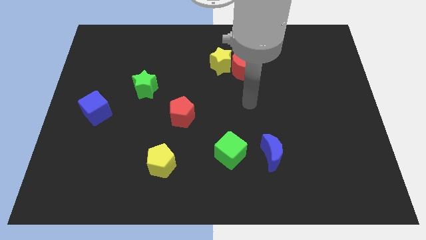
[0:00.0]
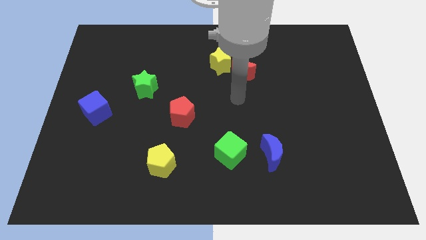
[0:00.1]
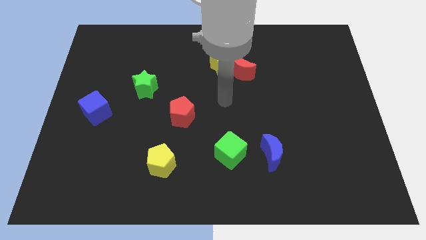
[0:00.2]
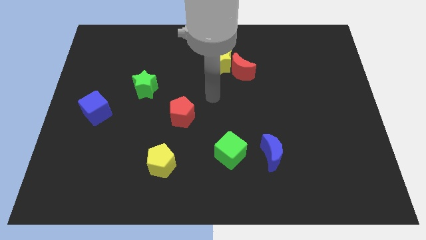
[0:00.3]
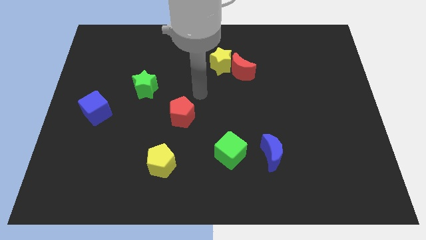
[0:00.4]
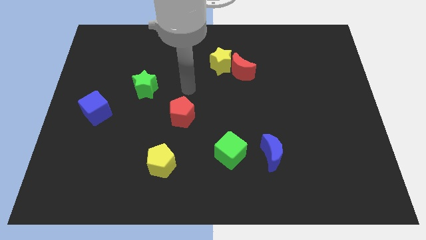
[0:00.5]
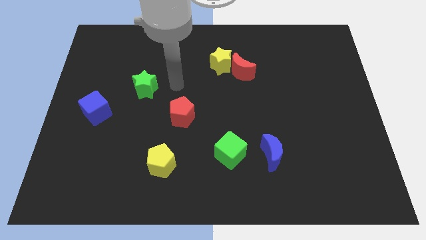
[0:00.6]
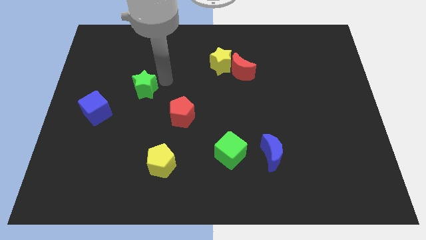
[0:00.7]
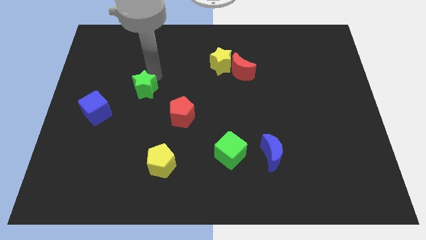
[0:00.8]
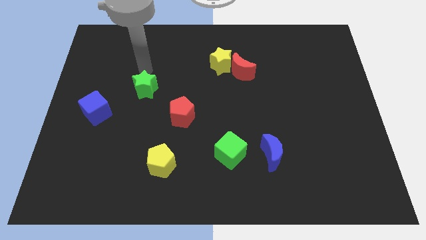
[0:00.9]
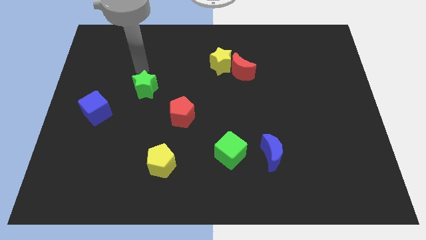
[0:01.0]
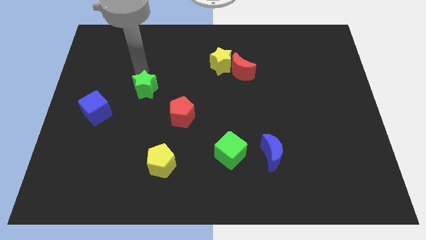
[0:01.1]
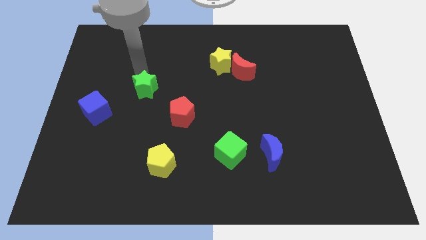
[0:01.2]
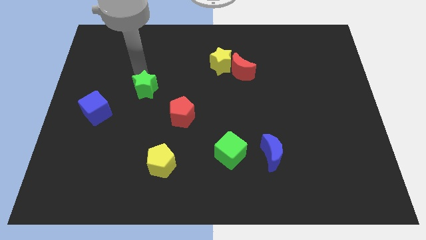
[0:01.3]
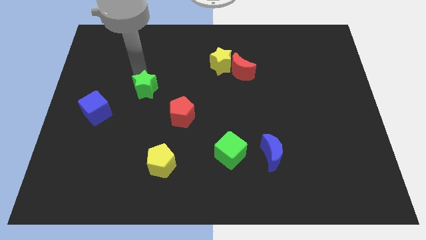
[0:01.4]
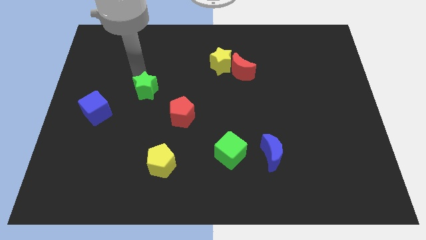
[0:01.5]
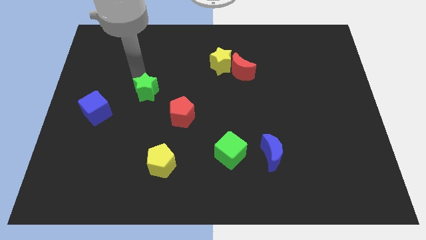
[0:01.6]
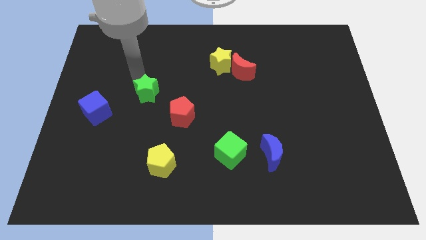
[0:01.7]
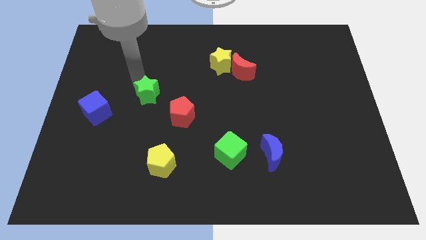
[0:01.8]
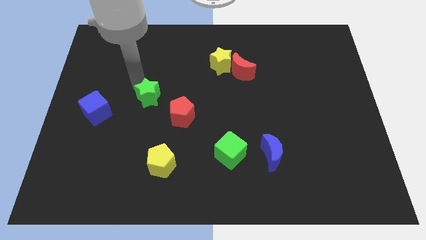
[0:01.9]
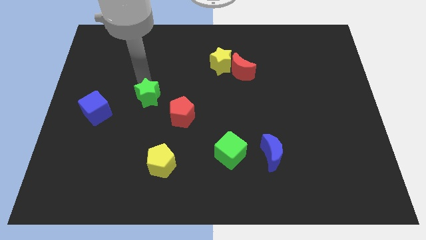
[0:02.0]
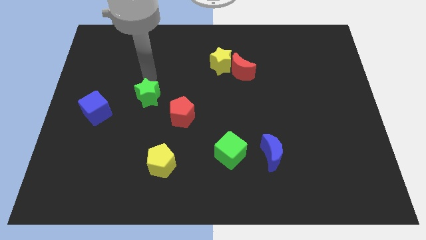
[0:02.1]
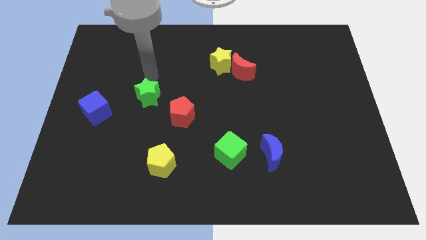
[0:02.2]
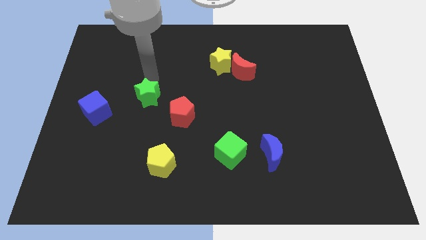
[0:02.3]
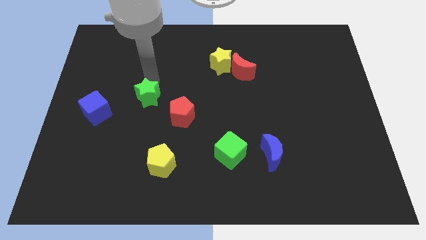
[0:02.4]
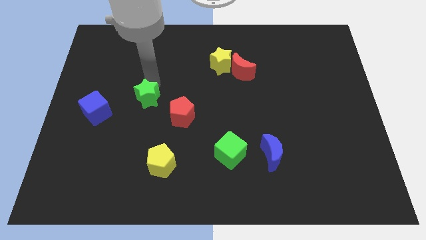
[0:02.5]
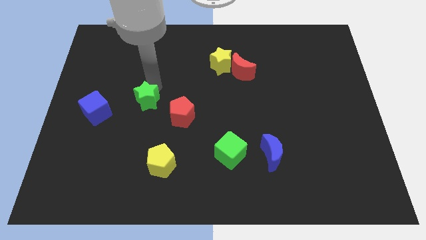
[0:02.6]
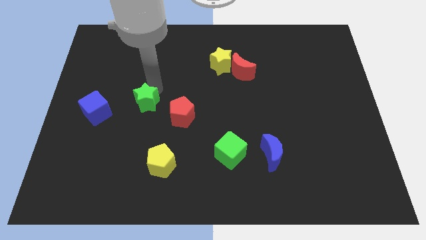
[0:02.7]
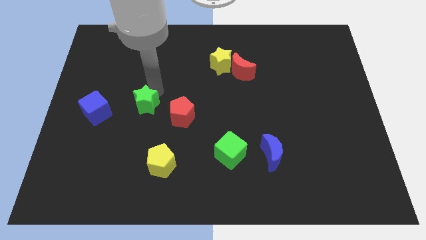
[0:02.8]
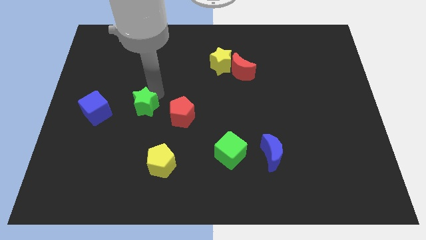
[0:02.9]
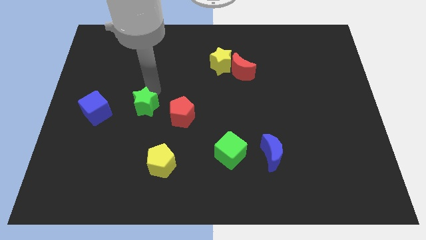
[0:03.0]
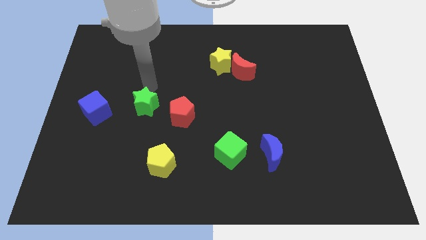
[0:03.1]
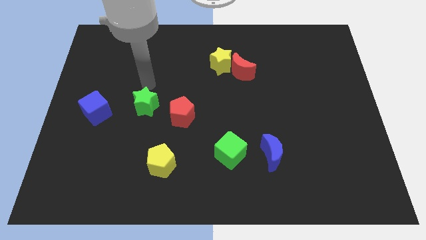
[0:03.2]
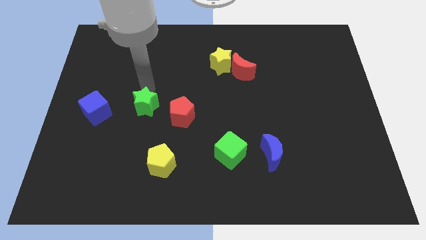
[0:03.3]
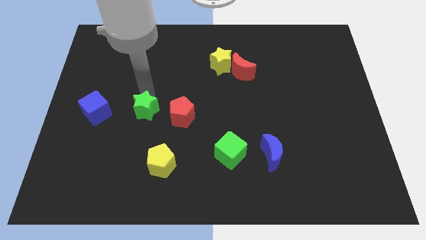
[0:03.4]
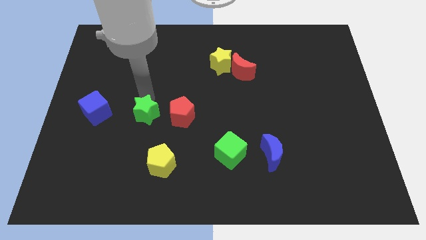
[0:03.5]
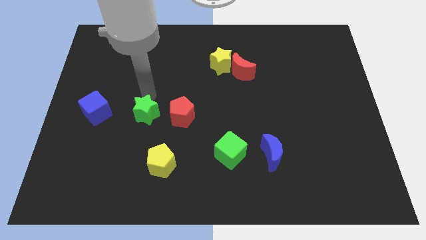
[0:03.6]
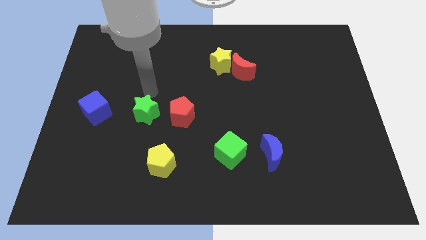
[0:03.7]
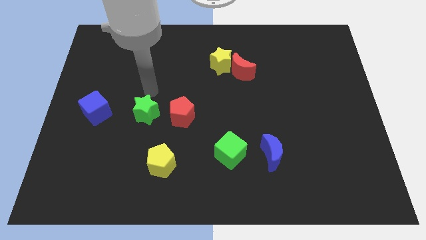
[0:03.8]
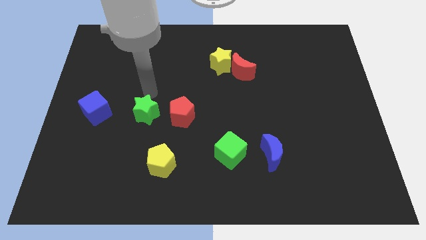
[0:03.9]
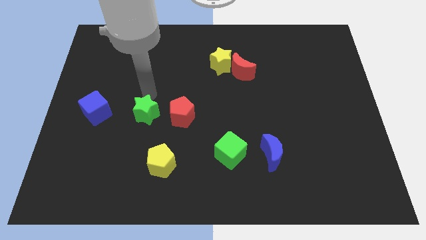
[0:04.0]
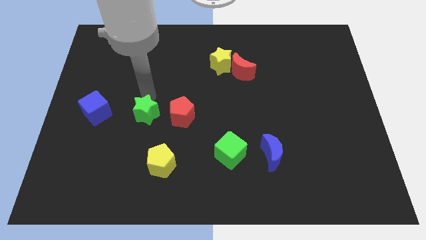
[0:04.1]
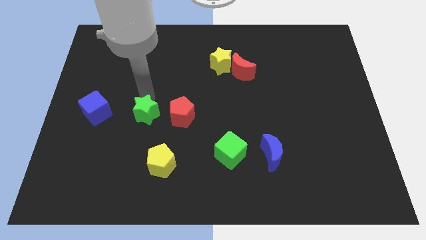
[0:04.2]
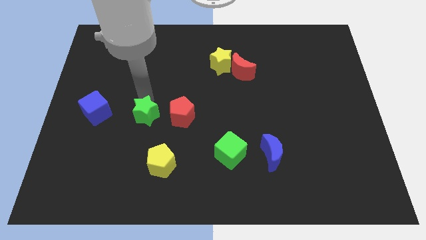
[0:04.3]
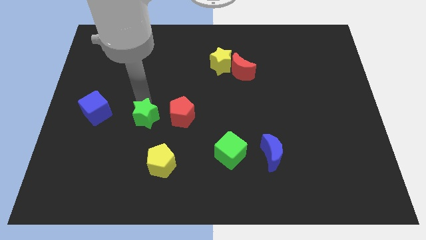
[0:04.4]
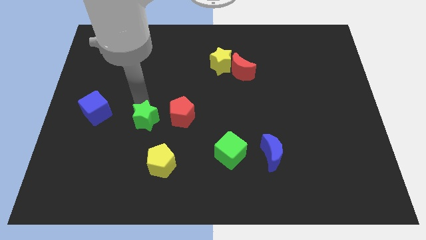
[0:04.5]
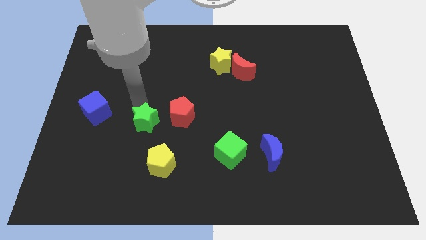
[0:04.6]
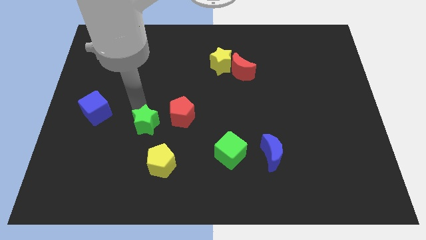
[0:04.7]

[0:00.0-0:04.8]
slide the green star to the top left side of the yellow pentagon

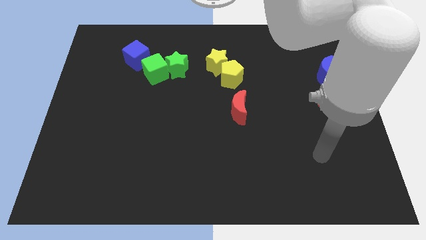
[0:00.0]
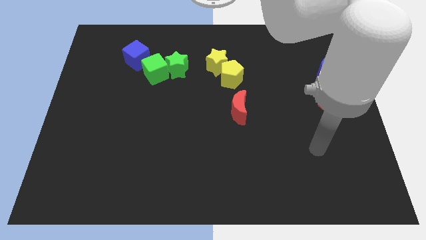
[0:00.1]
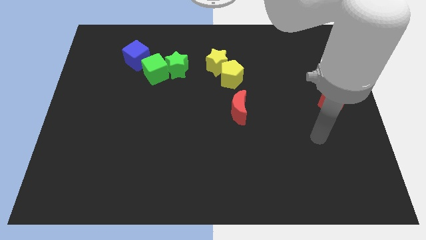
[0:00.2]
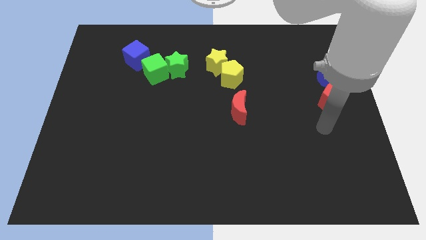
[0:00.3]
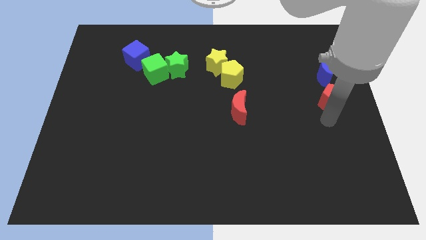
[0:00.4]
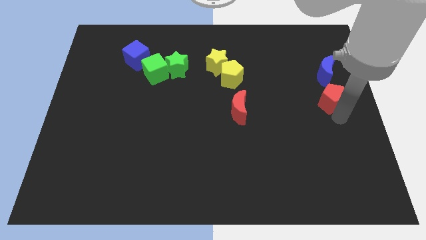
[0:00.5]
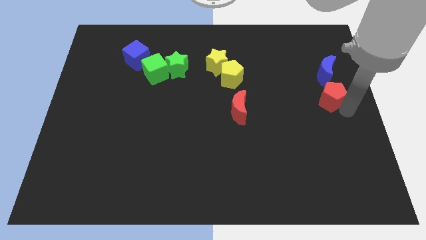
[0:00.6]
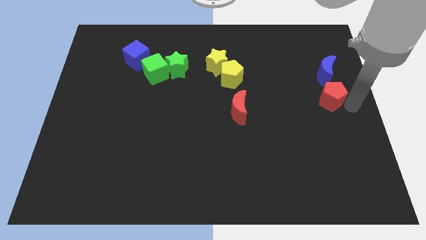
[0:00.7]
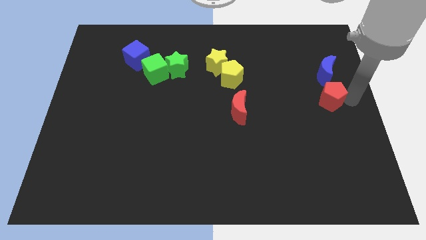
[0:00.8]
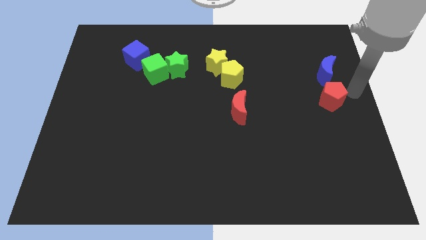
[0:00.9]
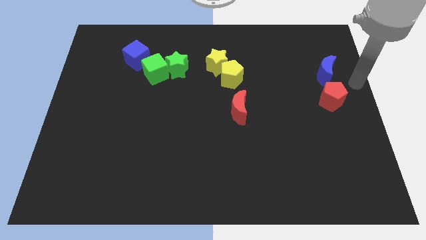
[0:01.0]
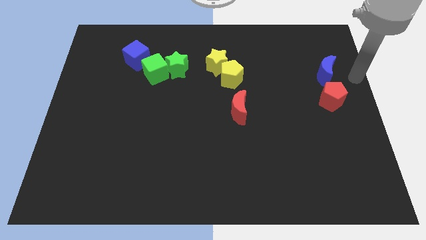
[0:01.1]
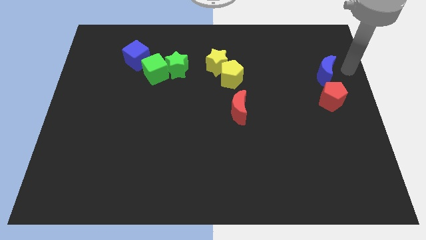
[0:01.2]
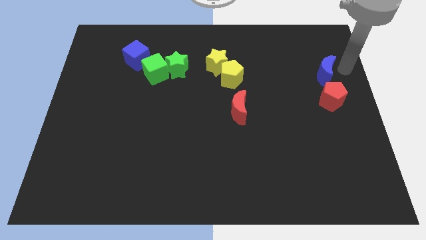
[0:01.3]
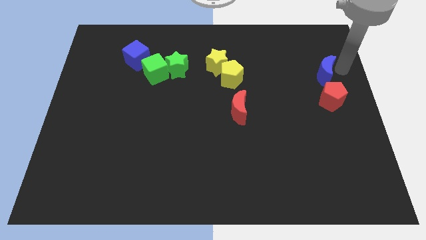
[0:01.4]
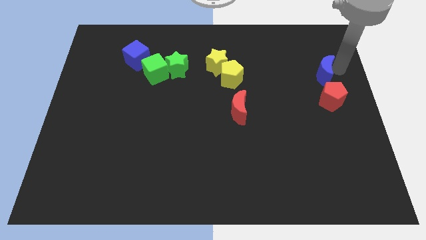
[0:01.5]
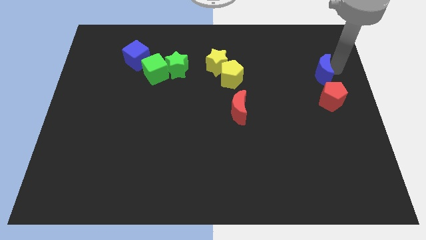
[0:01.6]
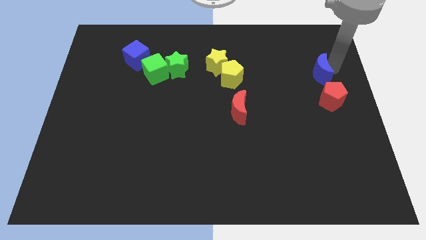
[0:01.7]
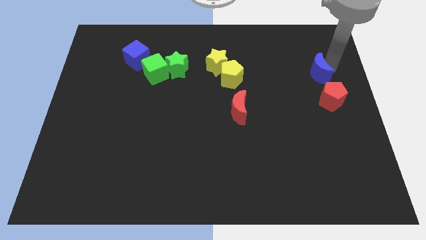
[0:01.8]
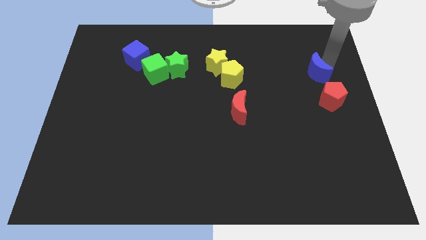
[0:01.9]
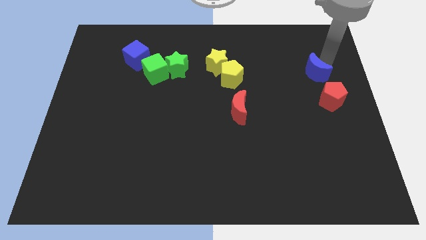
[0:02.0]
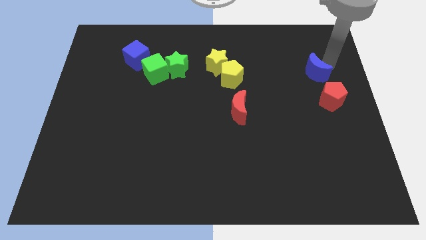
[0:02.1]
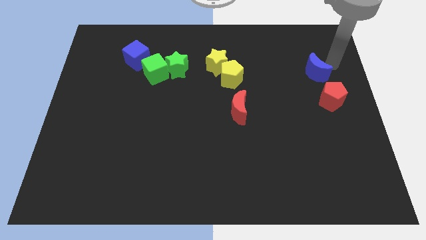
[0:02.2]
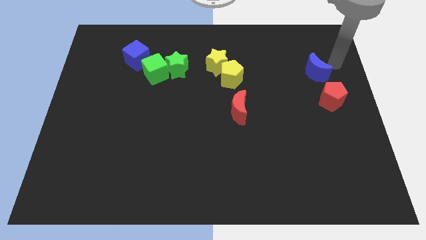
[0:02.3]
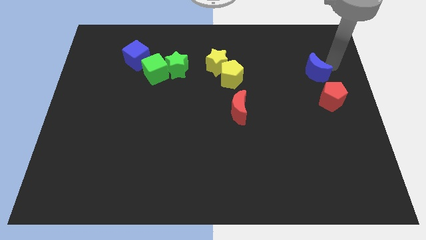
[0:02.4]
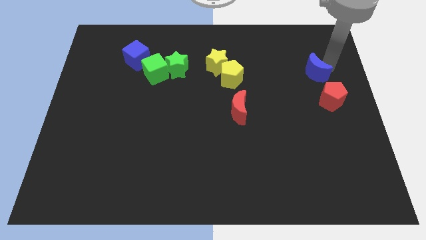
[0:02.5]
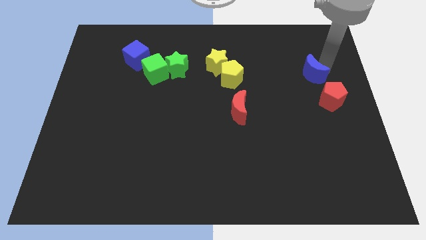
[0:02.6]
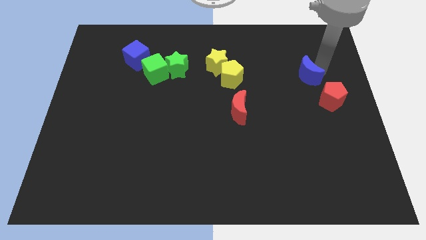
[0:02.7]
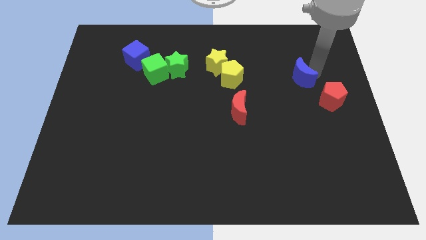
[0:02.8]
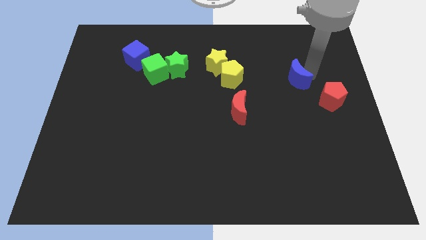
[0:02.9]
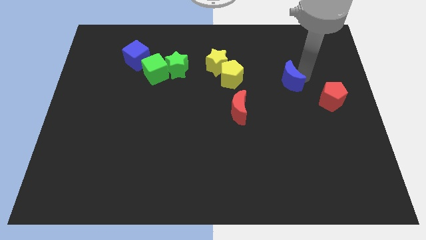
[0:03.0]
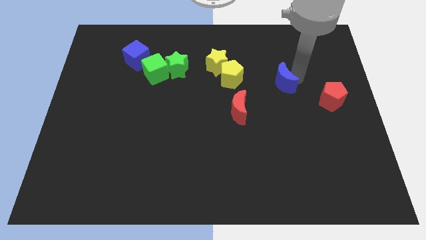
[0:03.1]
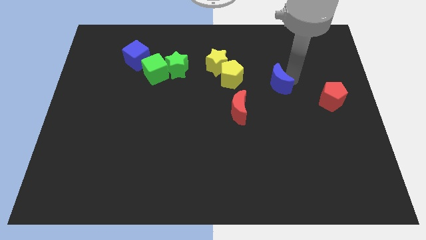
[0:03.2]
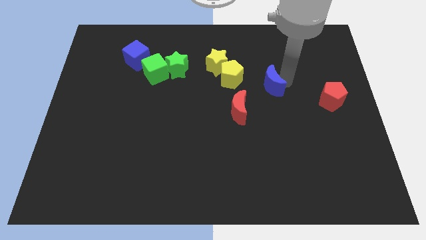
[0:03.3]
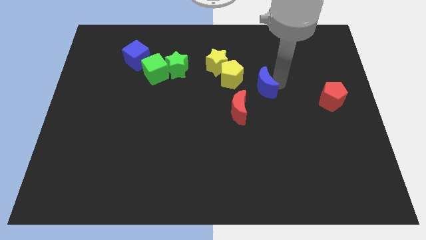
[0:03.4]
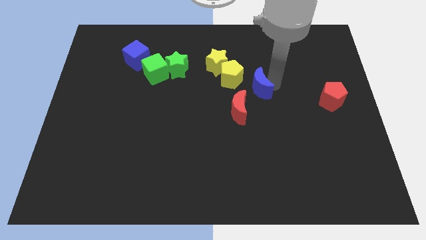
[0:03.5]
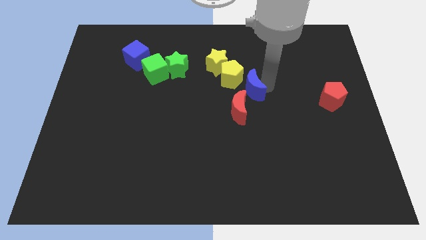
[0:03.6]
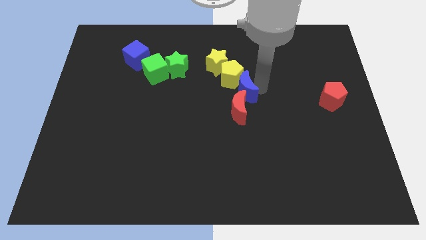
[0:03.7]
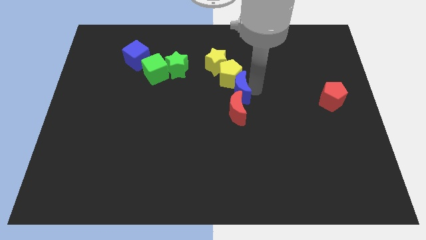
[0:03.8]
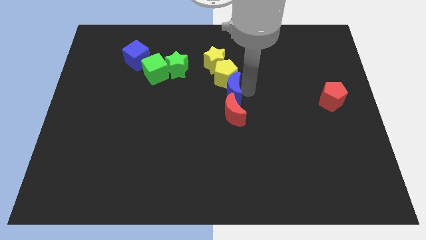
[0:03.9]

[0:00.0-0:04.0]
push the blue moon to the top left of the red moon
